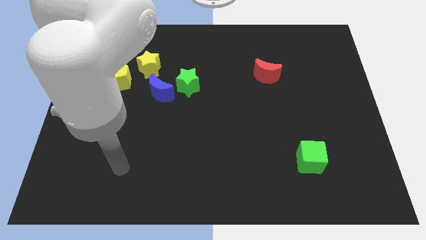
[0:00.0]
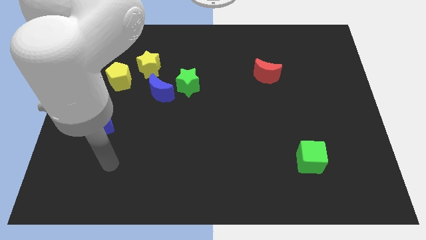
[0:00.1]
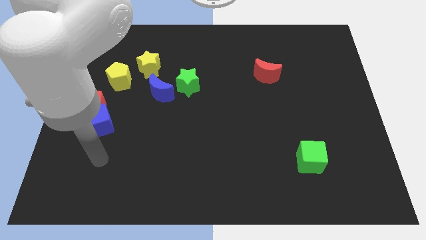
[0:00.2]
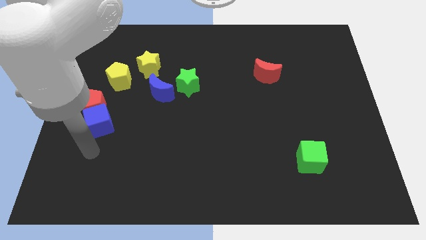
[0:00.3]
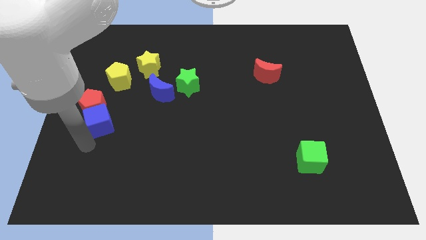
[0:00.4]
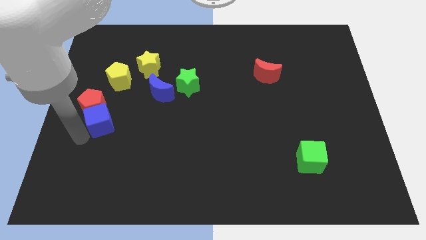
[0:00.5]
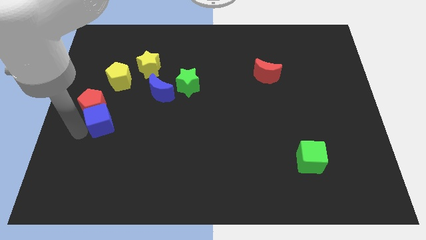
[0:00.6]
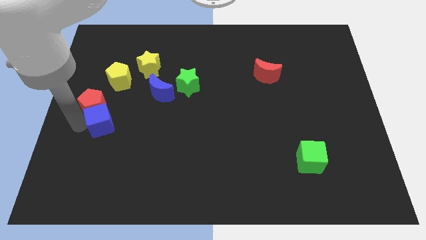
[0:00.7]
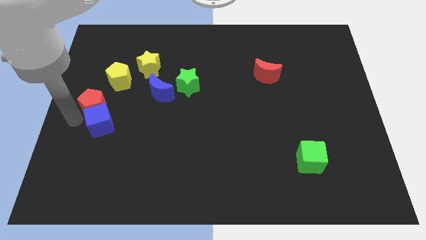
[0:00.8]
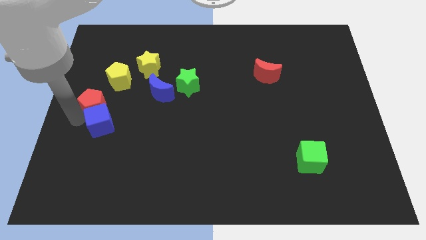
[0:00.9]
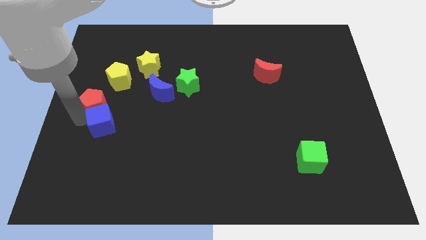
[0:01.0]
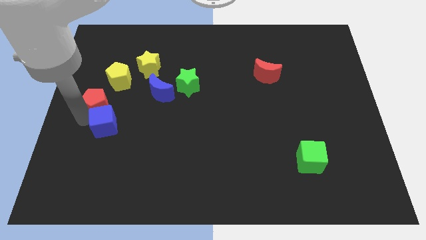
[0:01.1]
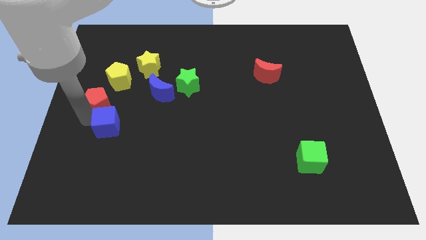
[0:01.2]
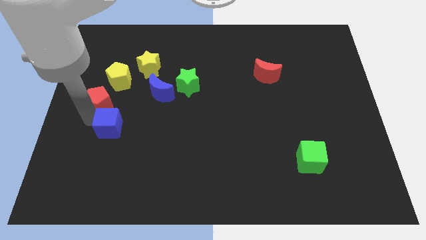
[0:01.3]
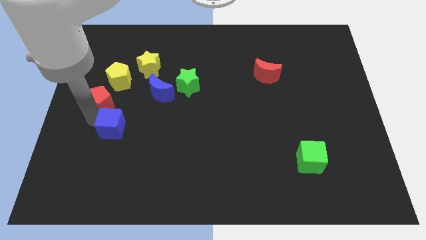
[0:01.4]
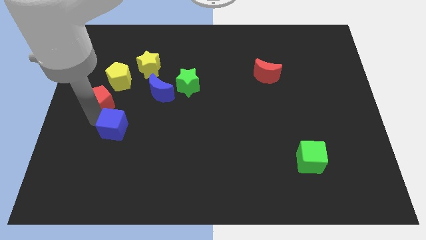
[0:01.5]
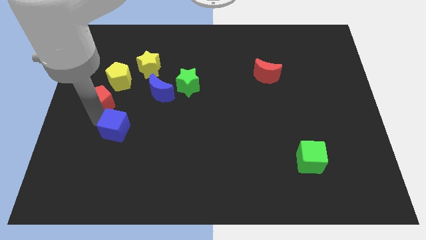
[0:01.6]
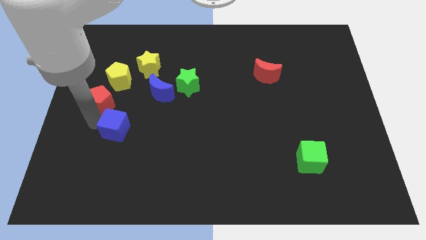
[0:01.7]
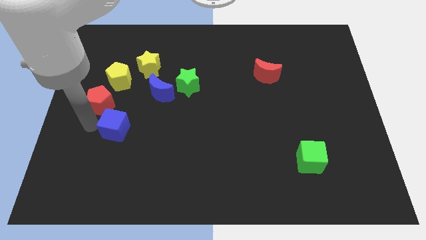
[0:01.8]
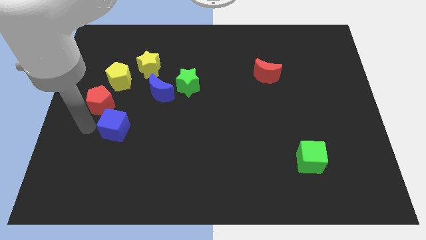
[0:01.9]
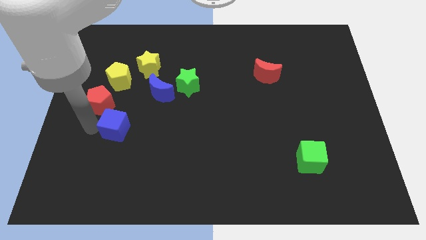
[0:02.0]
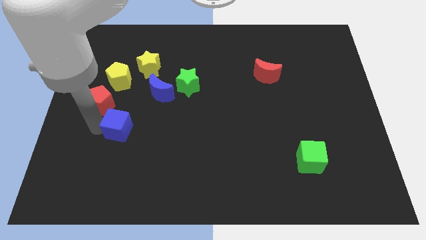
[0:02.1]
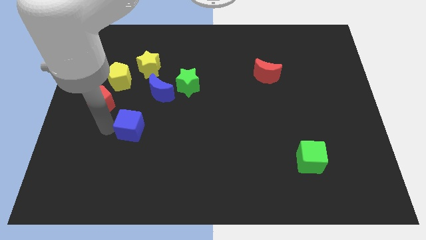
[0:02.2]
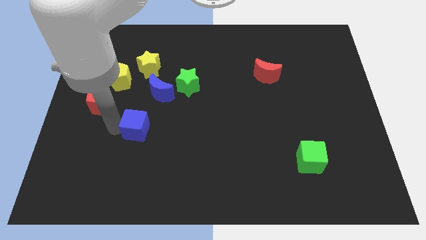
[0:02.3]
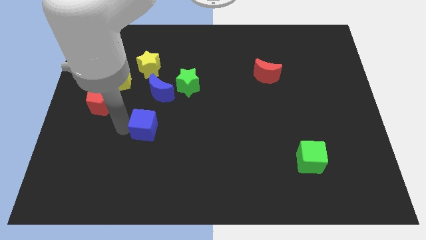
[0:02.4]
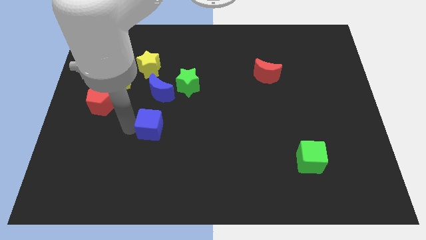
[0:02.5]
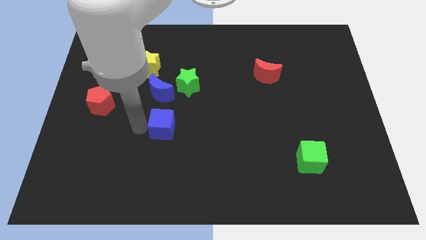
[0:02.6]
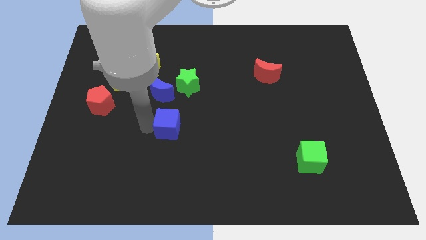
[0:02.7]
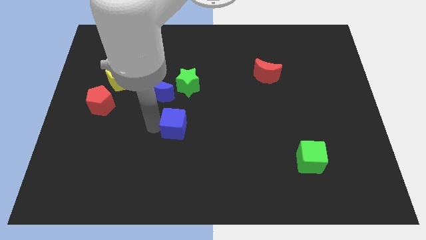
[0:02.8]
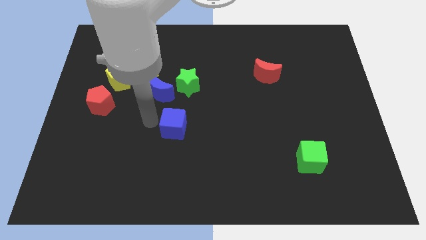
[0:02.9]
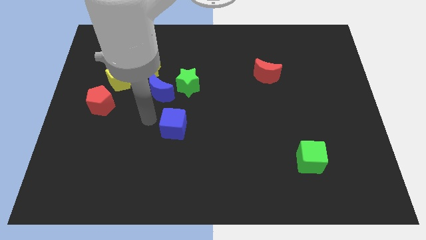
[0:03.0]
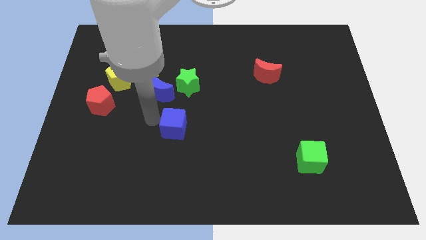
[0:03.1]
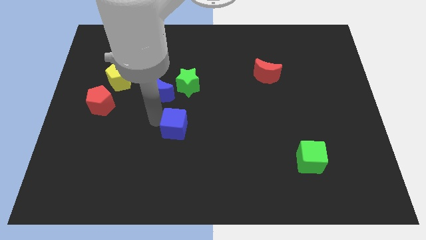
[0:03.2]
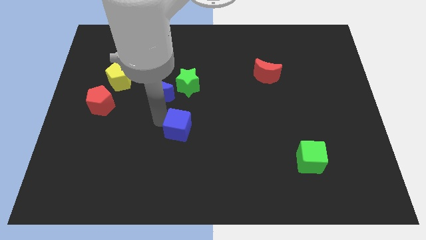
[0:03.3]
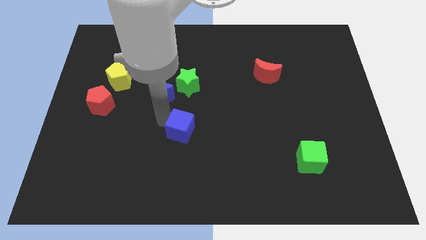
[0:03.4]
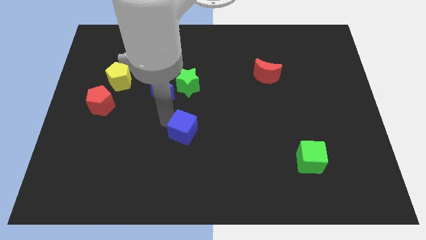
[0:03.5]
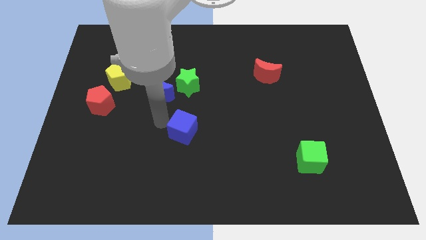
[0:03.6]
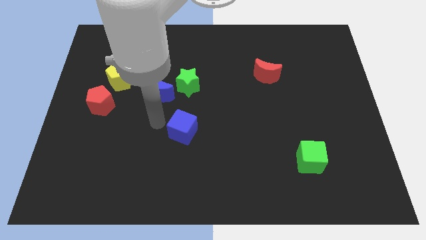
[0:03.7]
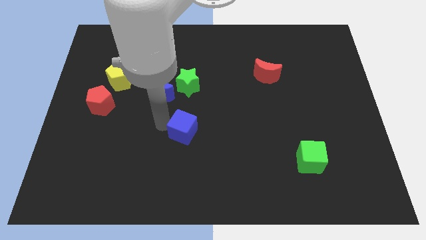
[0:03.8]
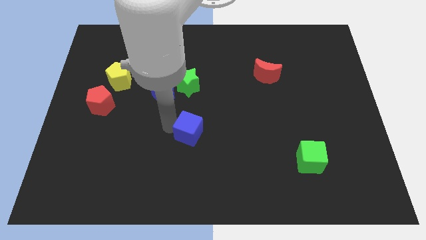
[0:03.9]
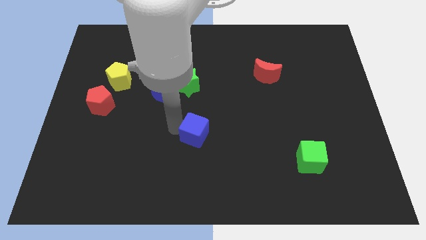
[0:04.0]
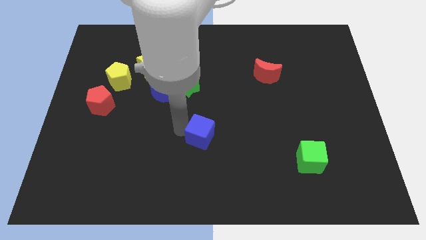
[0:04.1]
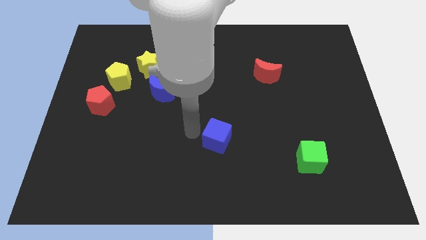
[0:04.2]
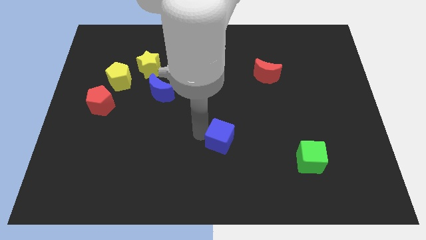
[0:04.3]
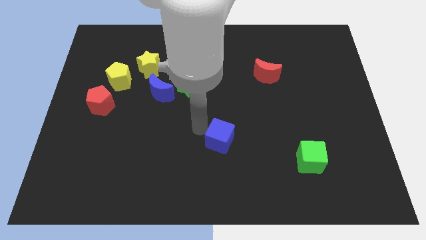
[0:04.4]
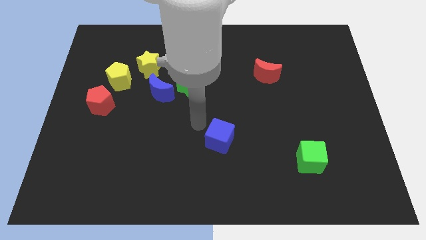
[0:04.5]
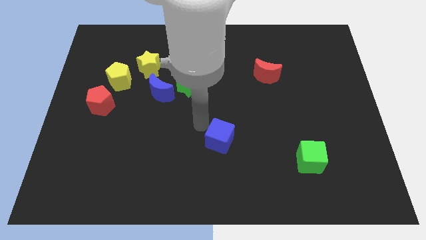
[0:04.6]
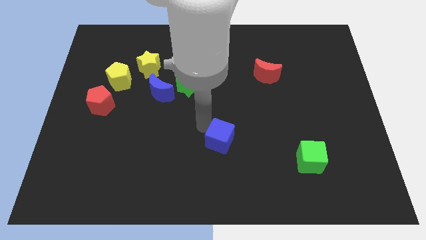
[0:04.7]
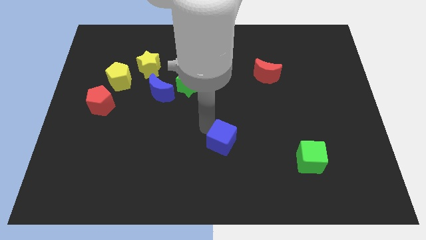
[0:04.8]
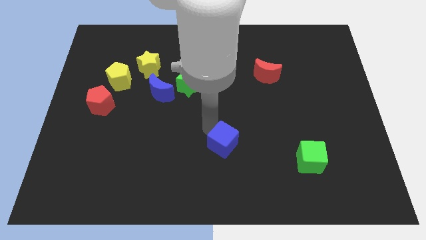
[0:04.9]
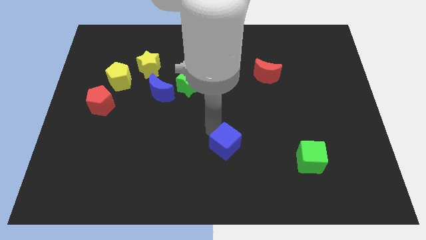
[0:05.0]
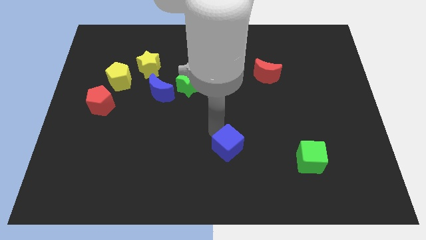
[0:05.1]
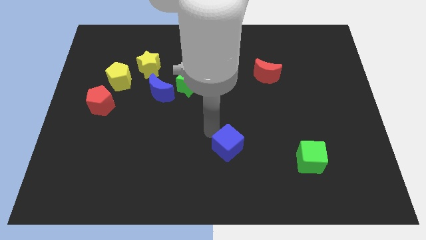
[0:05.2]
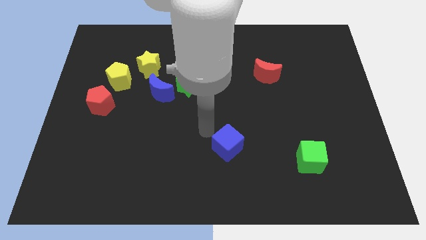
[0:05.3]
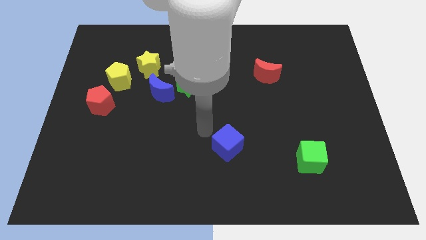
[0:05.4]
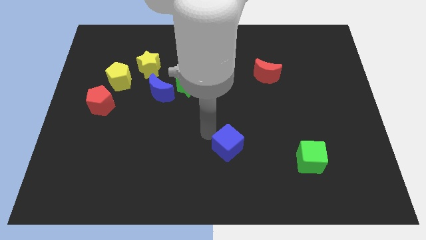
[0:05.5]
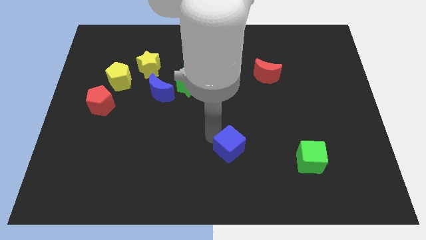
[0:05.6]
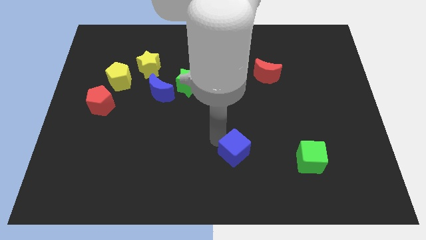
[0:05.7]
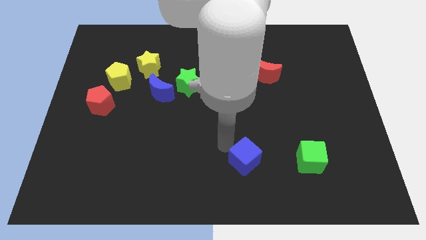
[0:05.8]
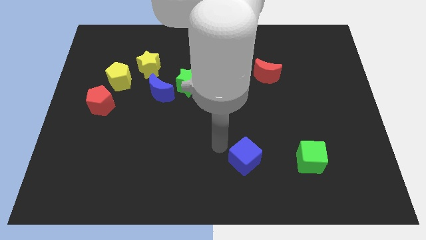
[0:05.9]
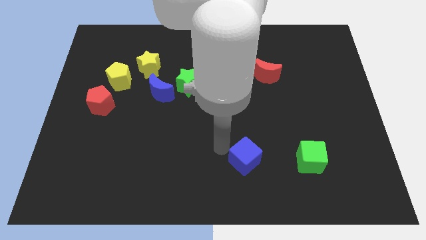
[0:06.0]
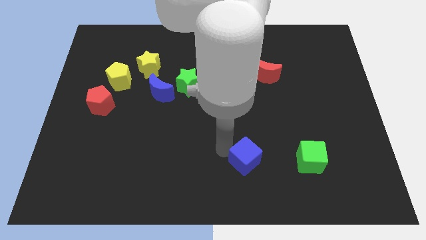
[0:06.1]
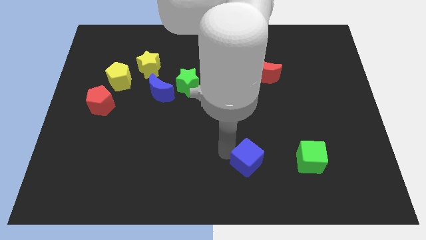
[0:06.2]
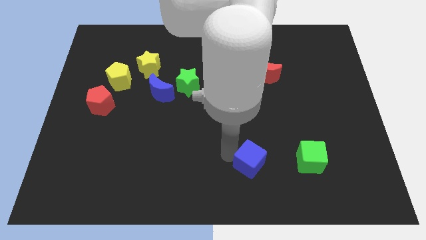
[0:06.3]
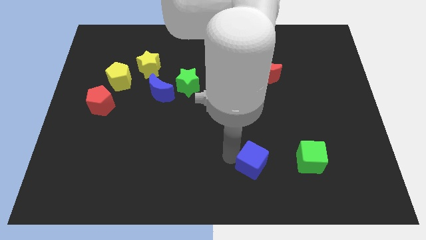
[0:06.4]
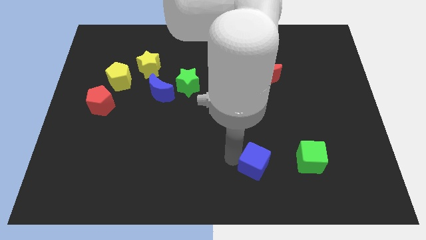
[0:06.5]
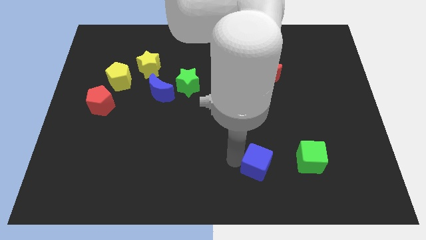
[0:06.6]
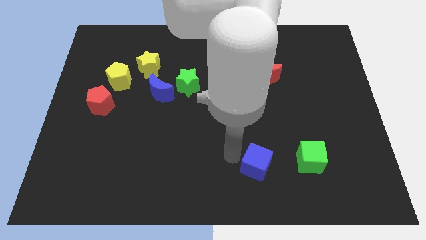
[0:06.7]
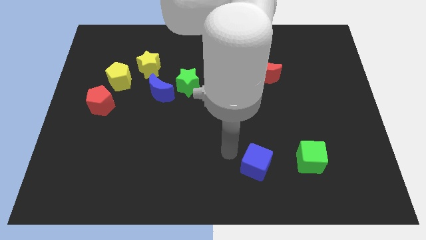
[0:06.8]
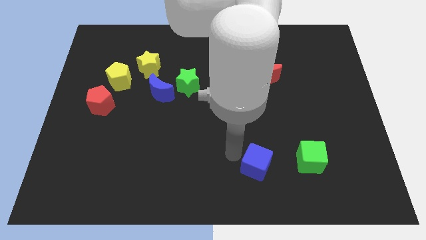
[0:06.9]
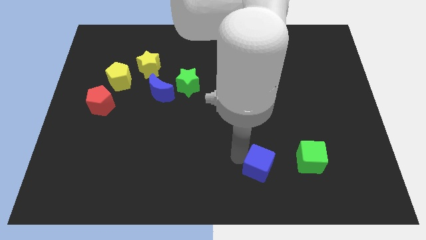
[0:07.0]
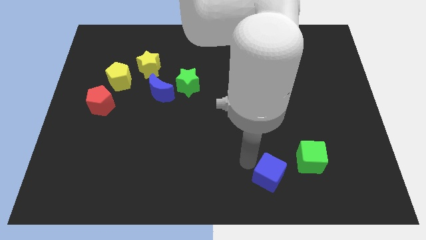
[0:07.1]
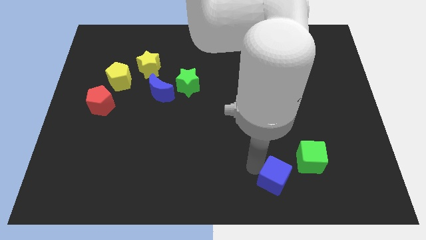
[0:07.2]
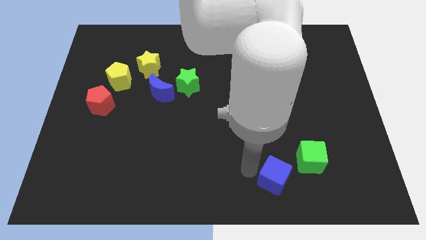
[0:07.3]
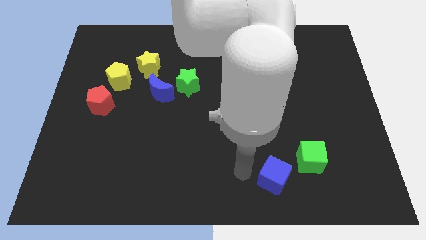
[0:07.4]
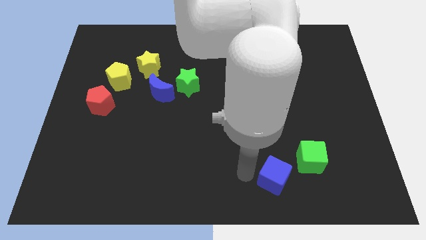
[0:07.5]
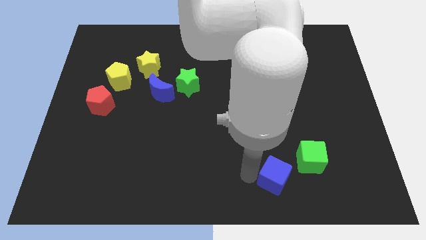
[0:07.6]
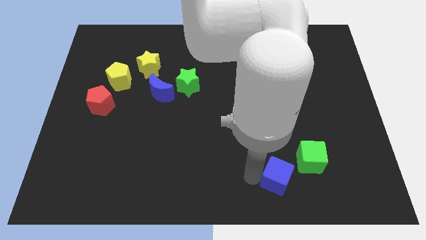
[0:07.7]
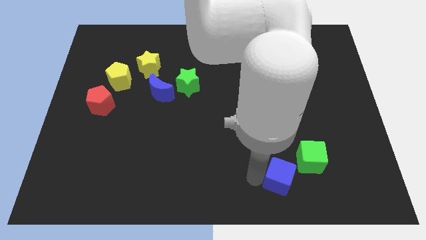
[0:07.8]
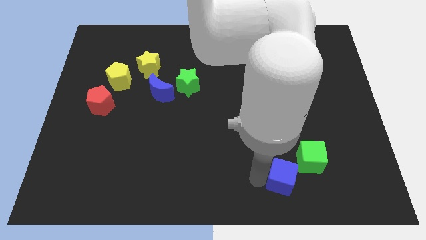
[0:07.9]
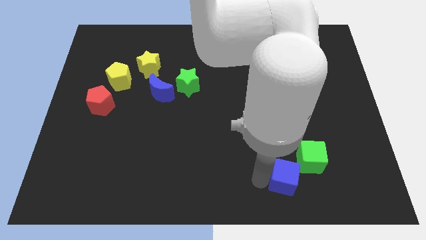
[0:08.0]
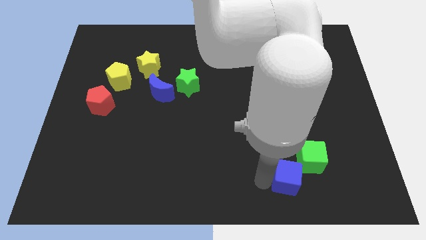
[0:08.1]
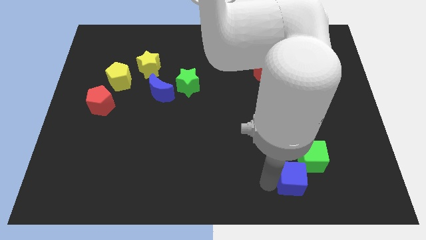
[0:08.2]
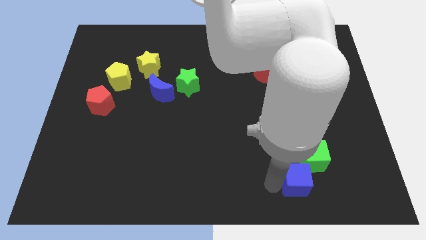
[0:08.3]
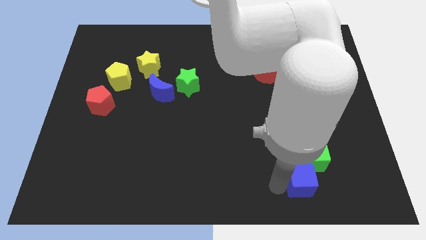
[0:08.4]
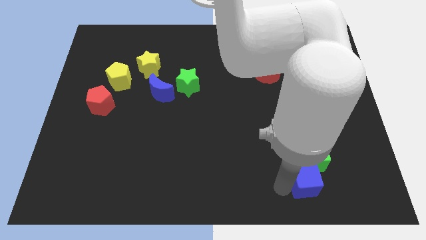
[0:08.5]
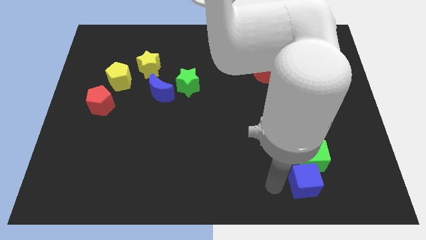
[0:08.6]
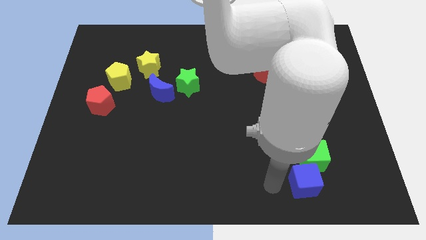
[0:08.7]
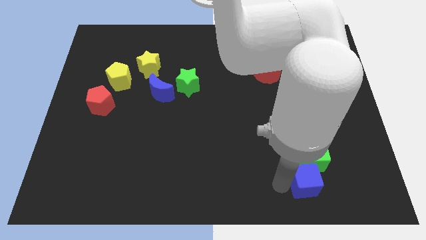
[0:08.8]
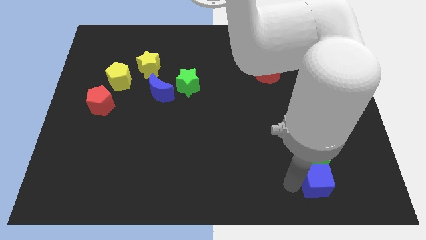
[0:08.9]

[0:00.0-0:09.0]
put the blue cube to the bottom right of the green cube
